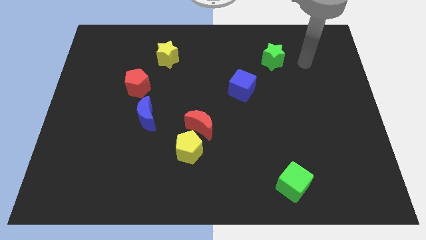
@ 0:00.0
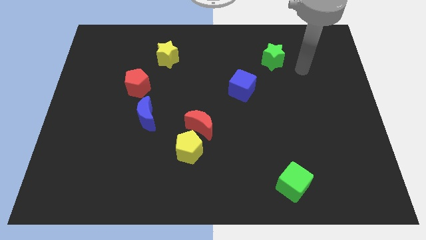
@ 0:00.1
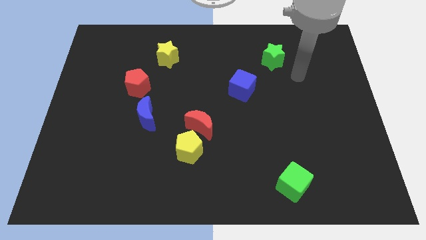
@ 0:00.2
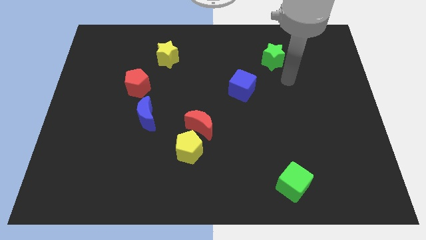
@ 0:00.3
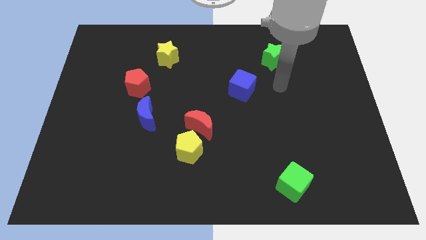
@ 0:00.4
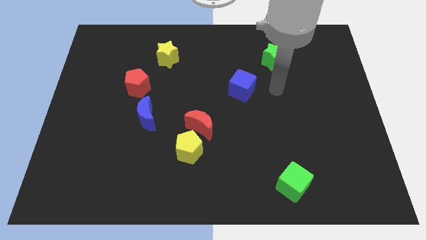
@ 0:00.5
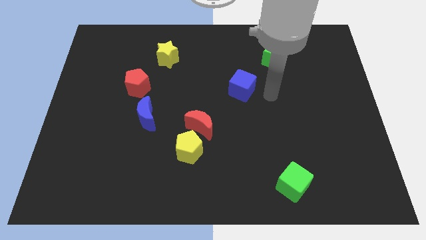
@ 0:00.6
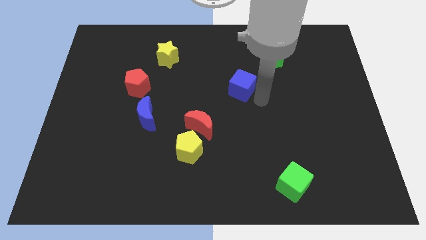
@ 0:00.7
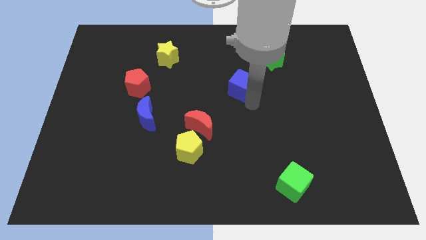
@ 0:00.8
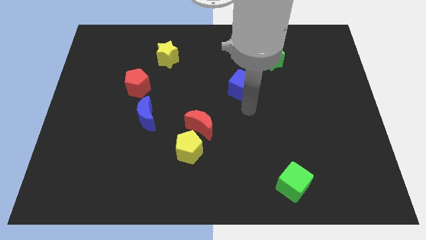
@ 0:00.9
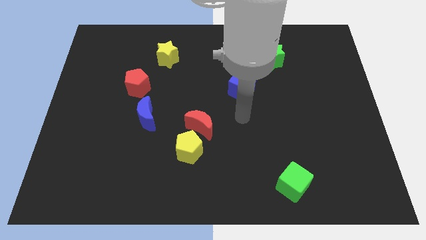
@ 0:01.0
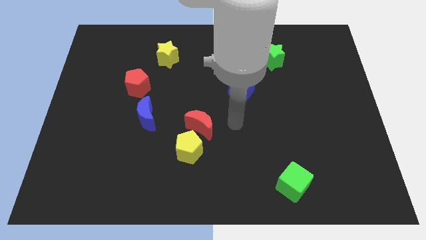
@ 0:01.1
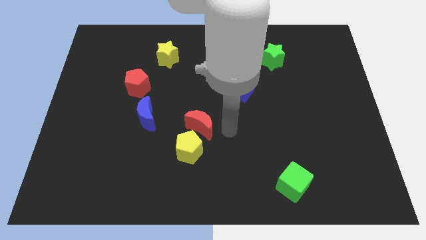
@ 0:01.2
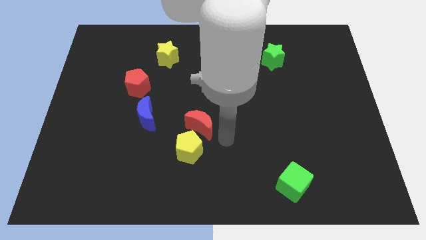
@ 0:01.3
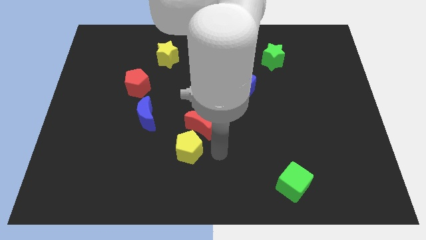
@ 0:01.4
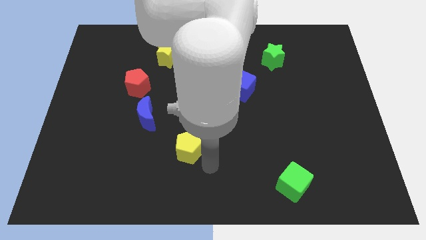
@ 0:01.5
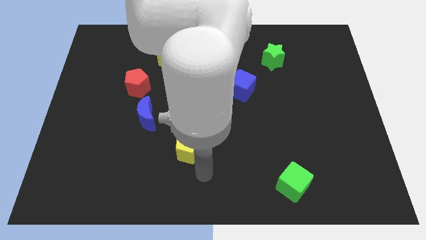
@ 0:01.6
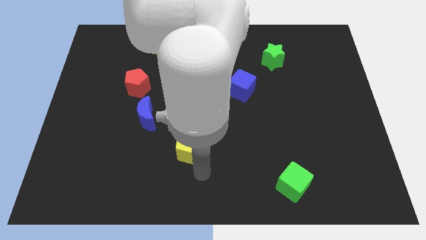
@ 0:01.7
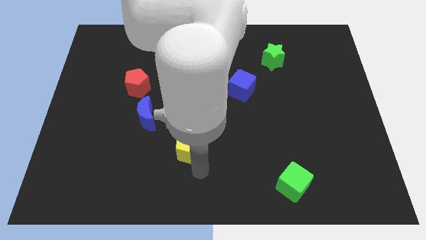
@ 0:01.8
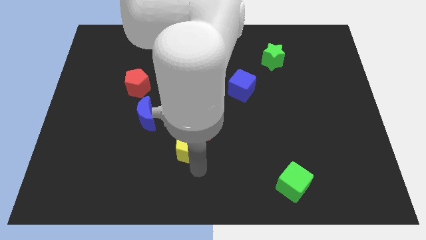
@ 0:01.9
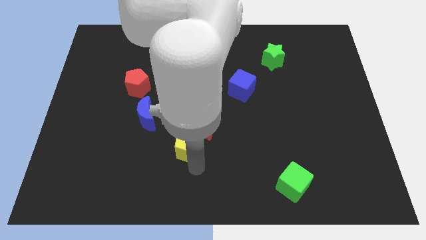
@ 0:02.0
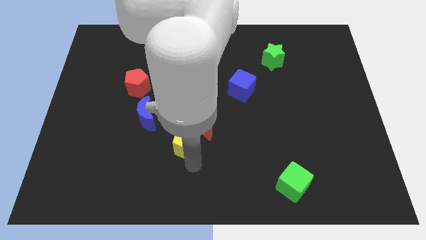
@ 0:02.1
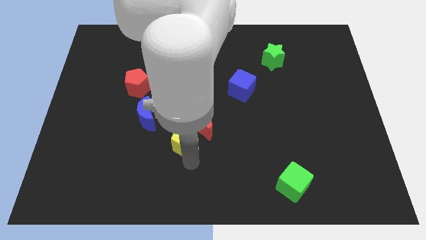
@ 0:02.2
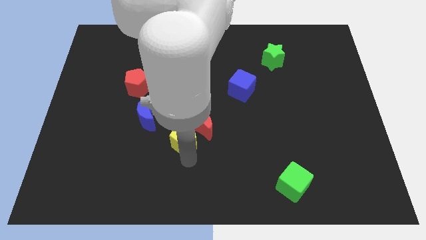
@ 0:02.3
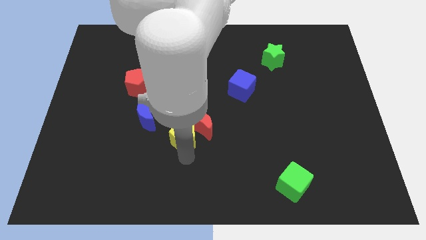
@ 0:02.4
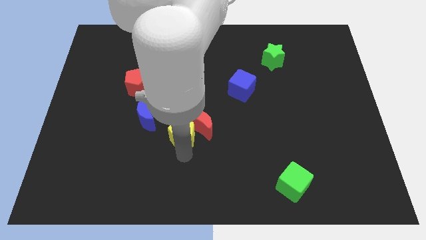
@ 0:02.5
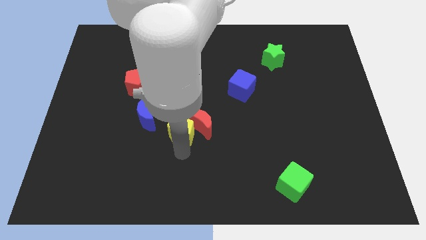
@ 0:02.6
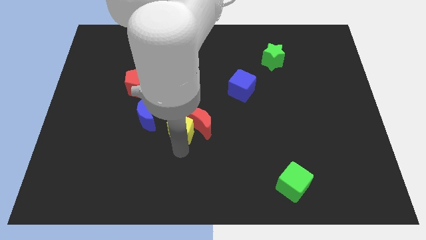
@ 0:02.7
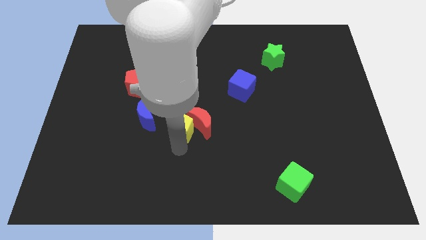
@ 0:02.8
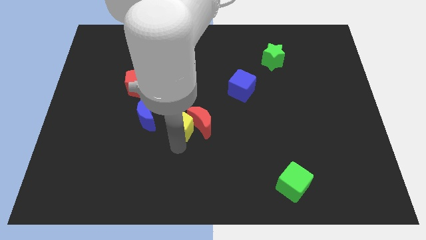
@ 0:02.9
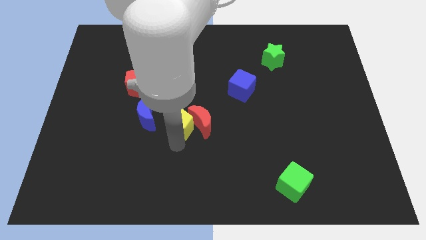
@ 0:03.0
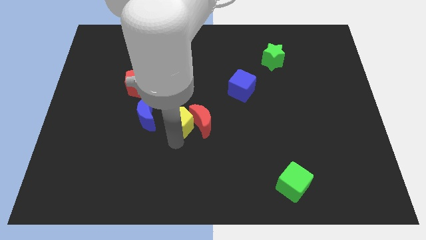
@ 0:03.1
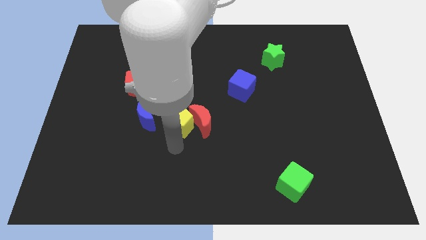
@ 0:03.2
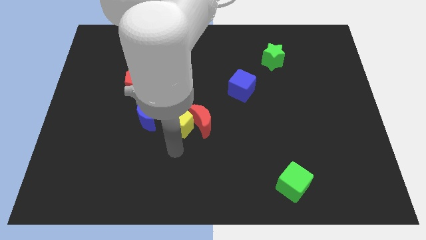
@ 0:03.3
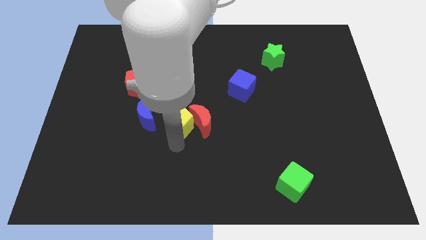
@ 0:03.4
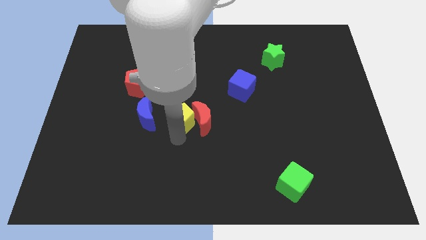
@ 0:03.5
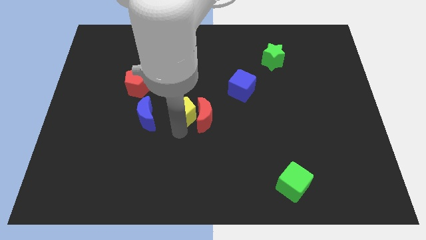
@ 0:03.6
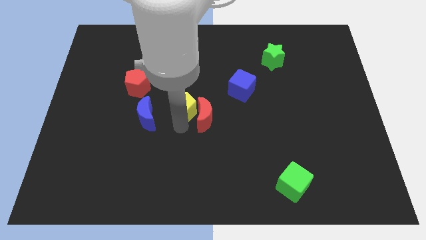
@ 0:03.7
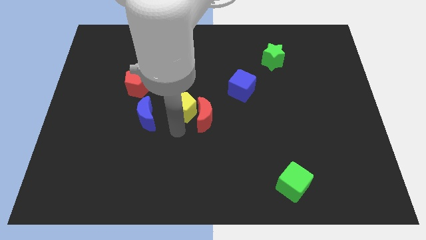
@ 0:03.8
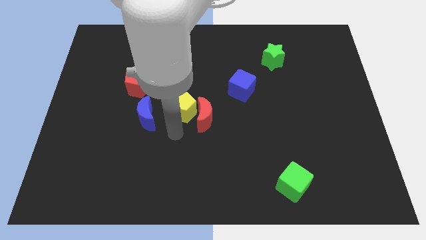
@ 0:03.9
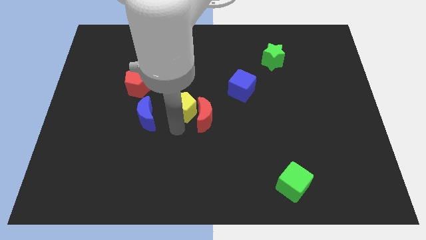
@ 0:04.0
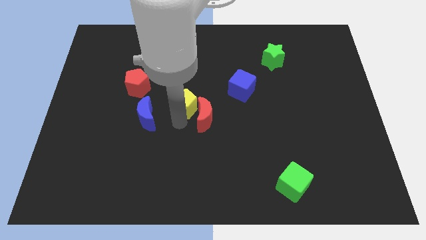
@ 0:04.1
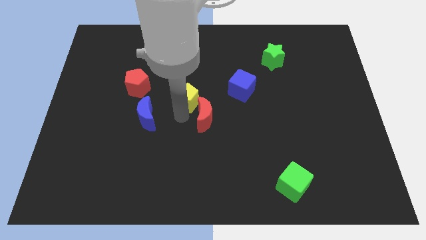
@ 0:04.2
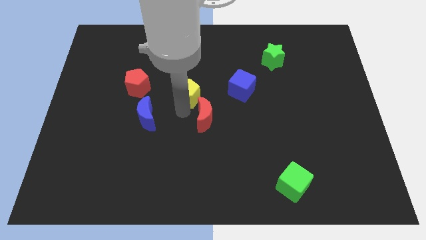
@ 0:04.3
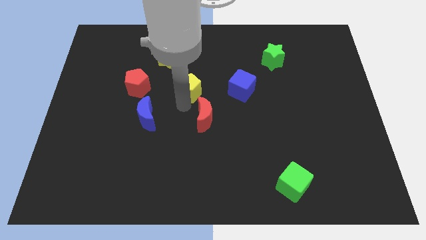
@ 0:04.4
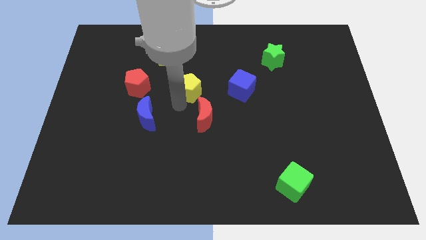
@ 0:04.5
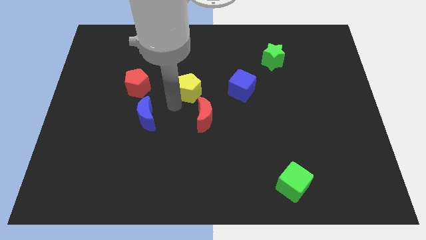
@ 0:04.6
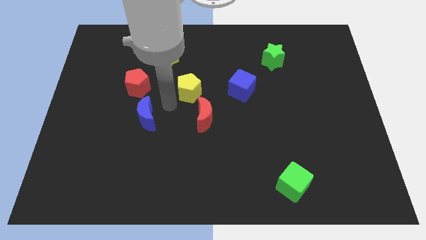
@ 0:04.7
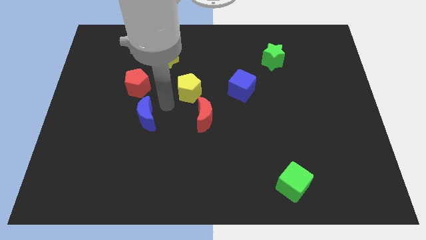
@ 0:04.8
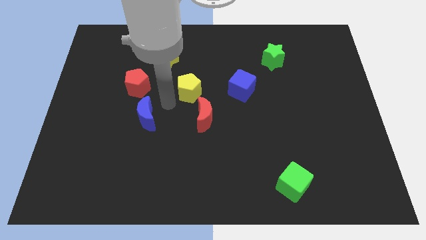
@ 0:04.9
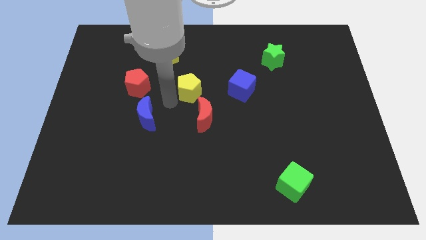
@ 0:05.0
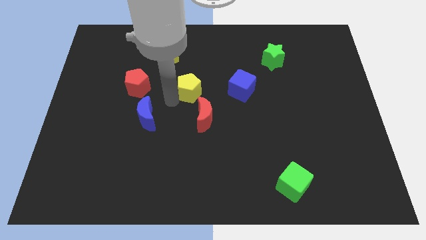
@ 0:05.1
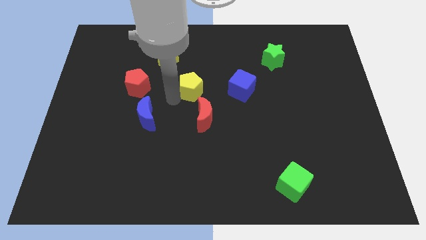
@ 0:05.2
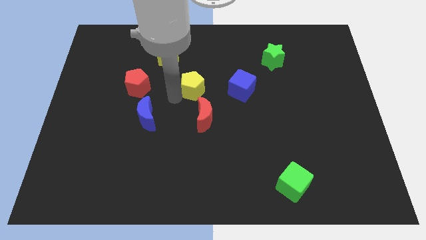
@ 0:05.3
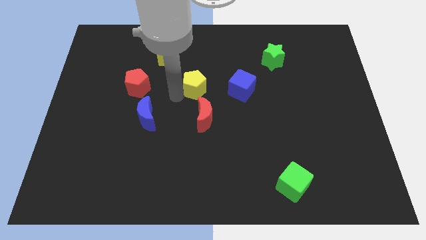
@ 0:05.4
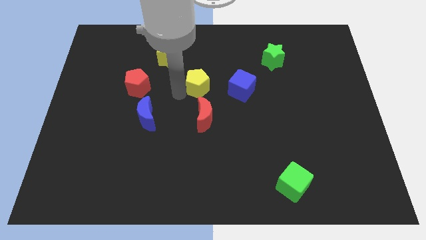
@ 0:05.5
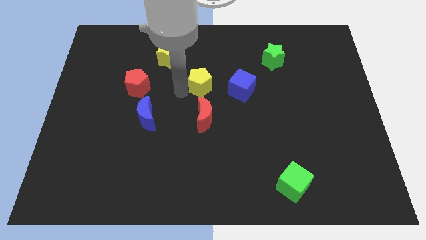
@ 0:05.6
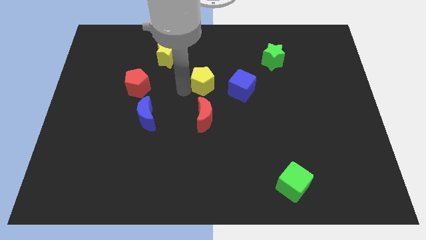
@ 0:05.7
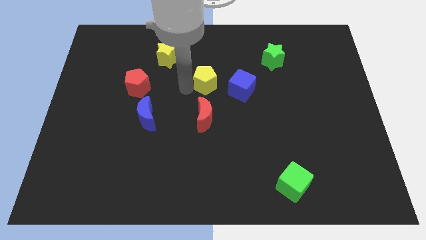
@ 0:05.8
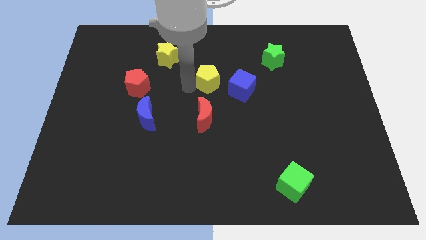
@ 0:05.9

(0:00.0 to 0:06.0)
put the yellow pentagon diagonally up and to the left of the blue cube
